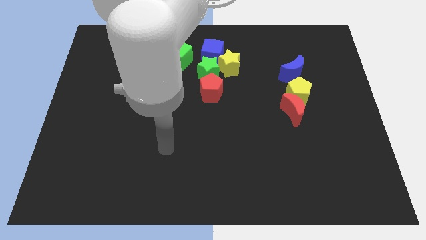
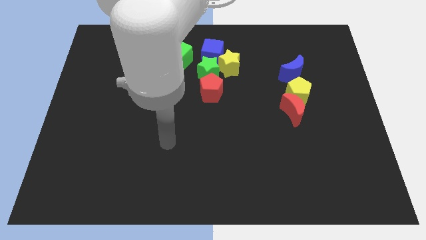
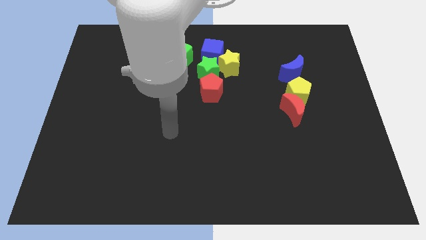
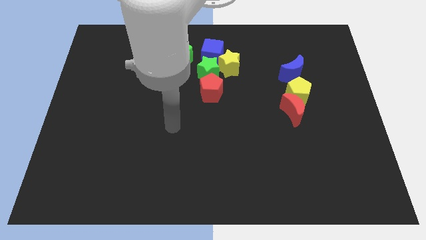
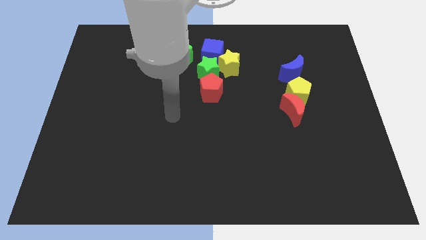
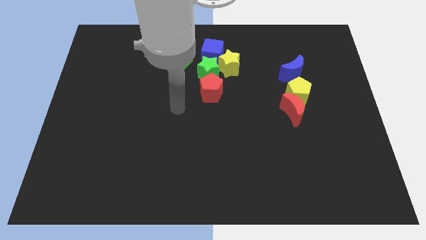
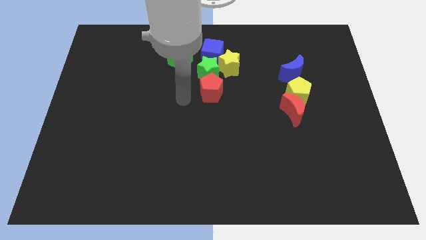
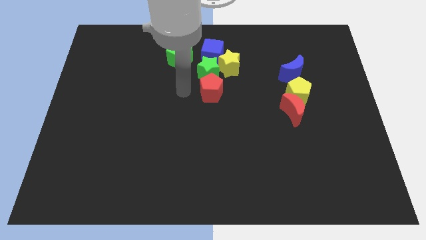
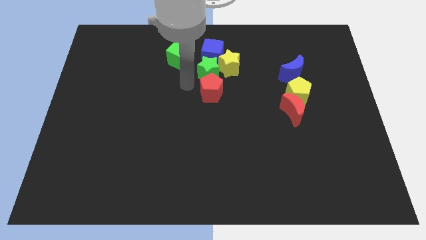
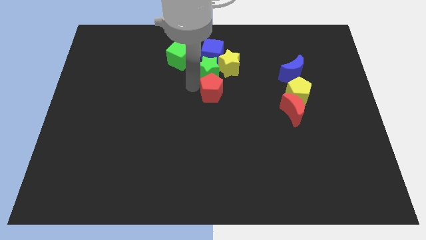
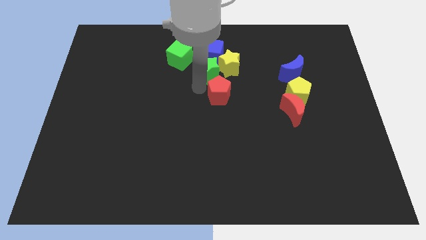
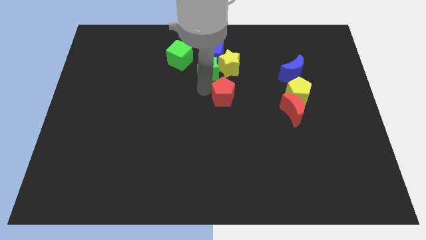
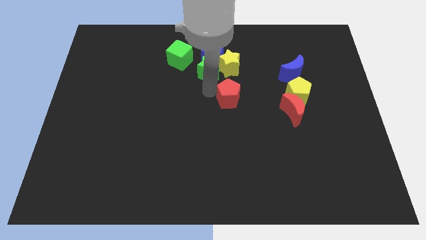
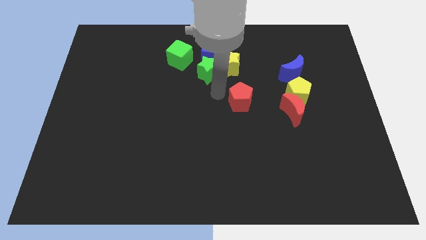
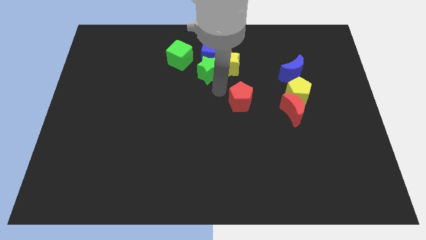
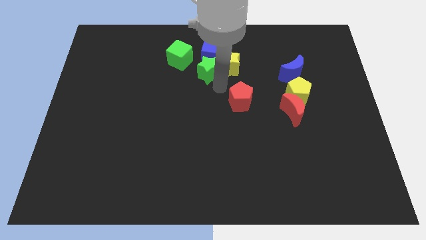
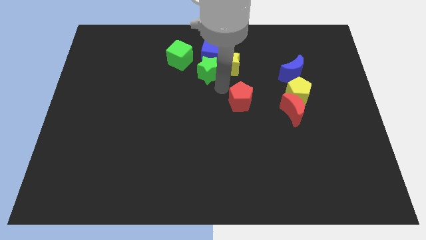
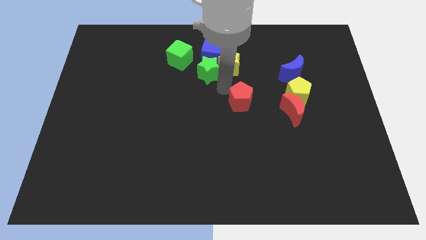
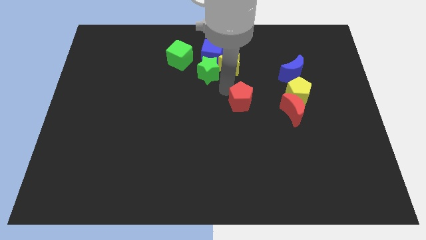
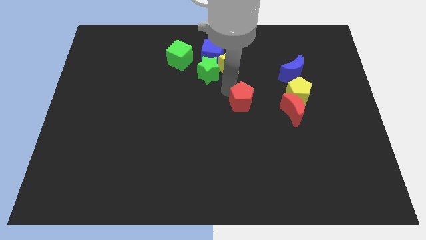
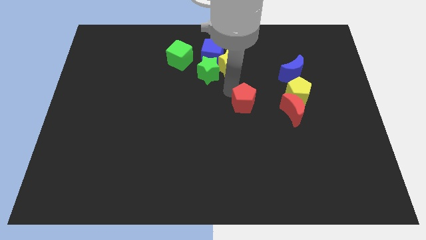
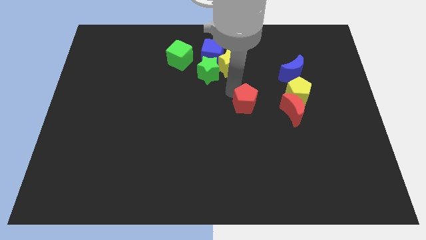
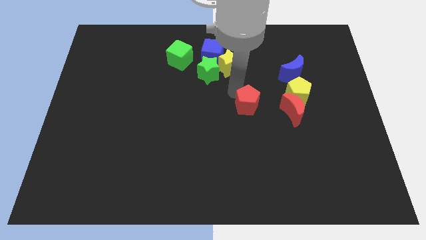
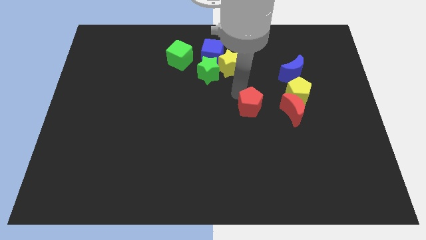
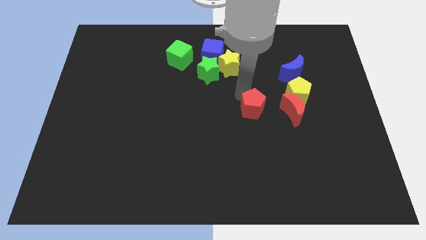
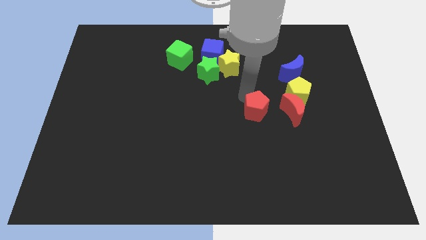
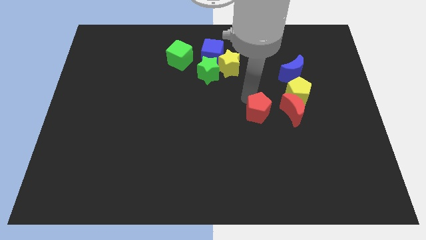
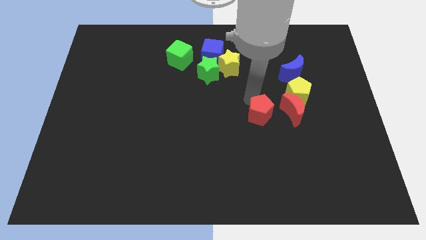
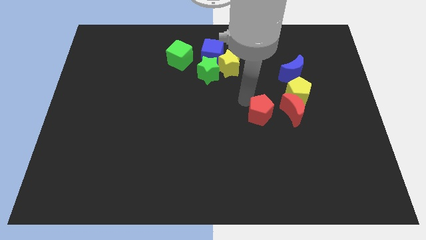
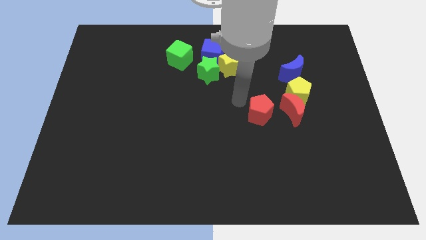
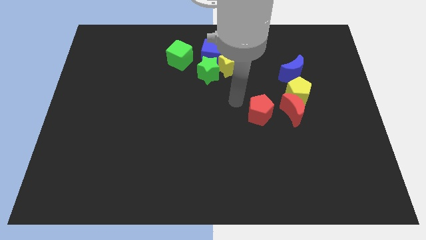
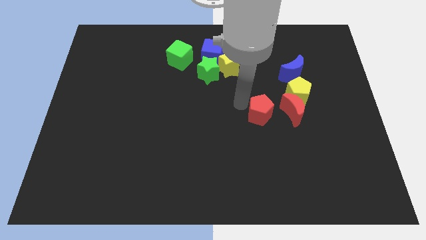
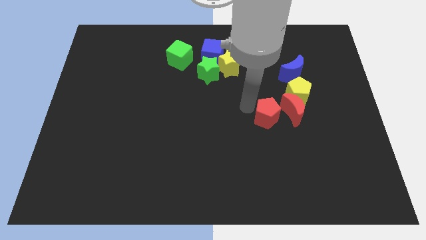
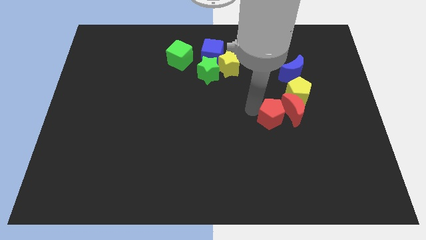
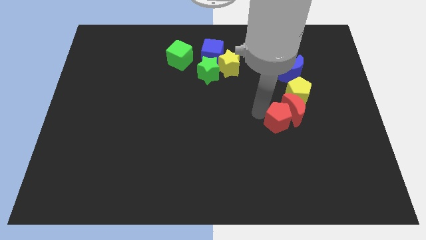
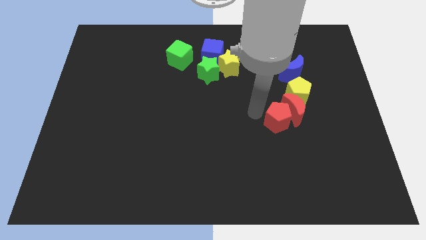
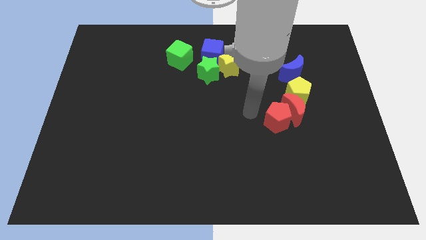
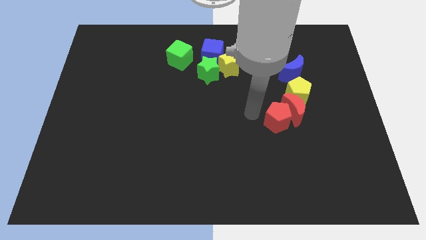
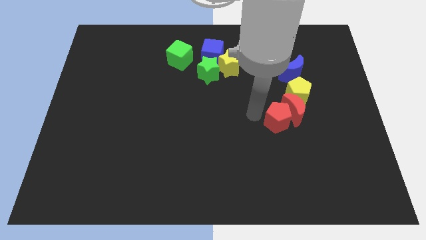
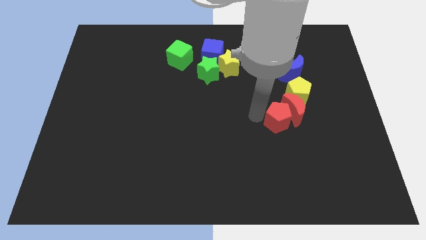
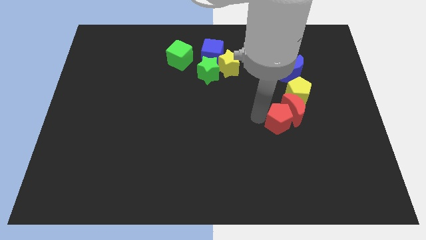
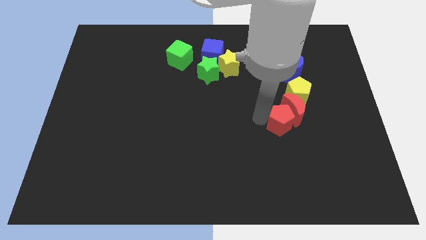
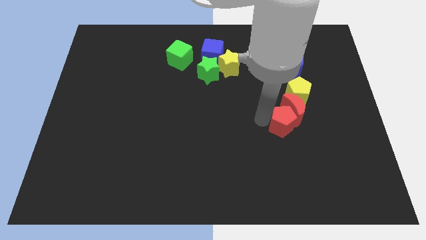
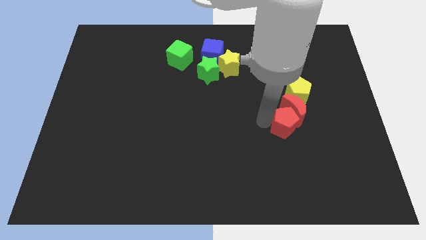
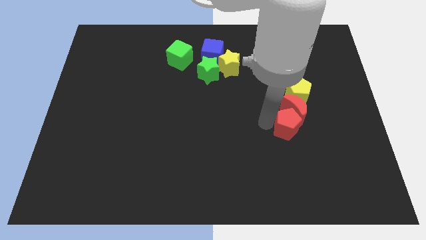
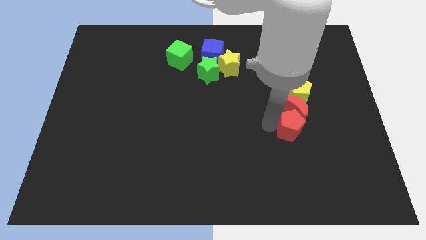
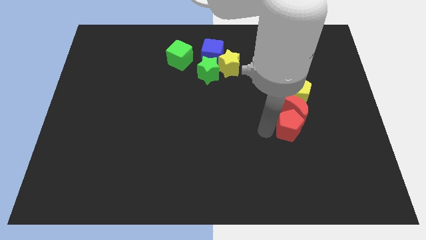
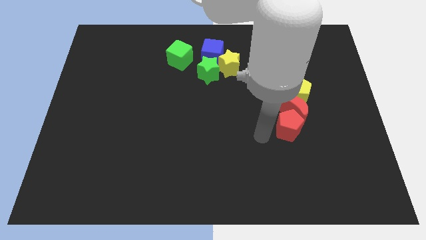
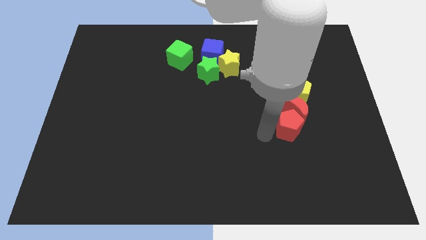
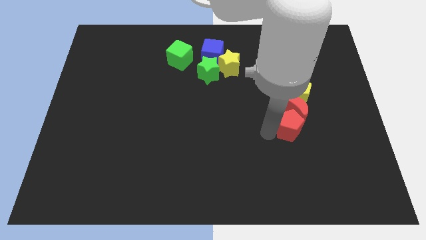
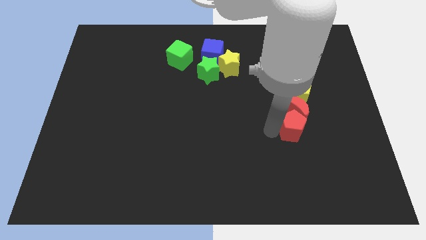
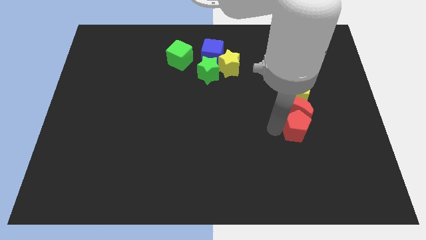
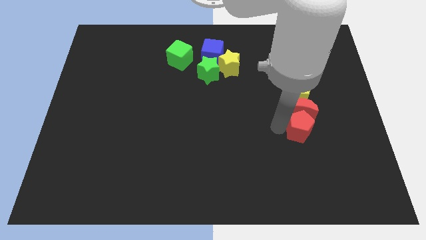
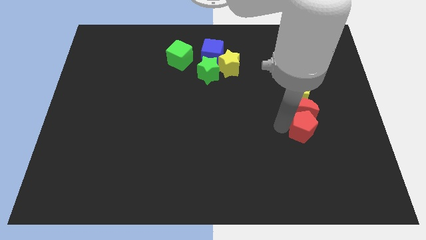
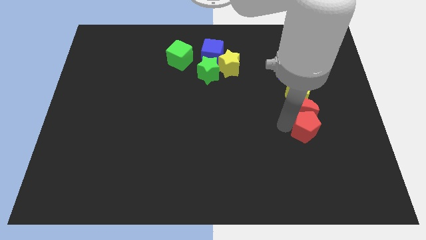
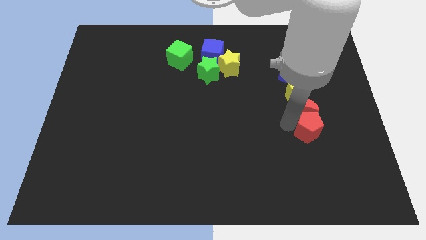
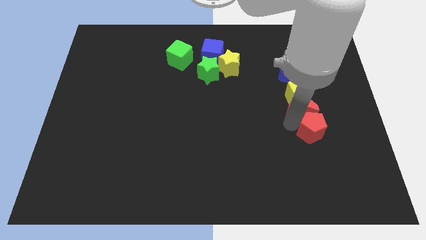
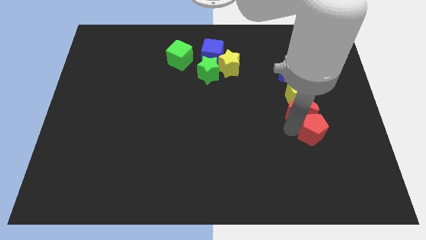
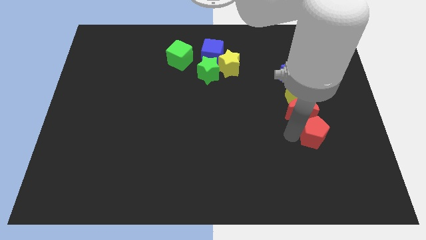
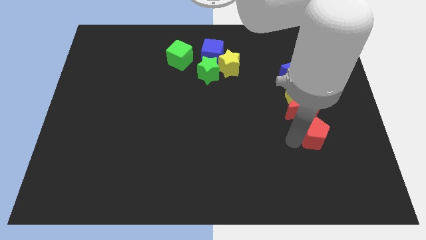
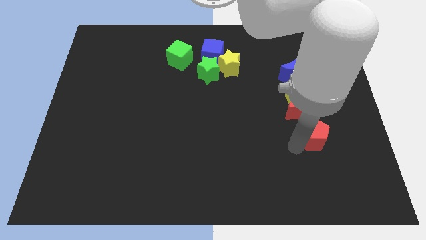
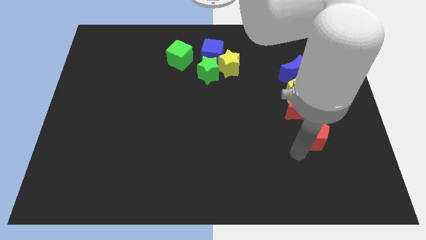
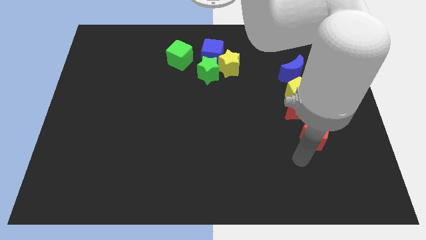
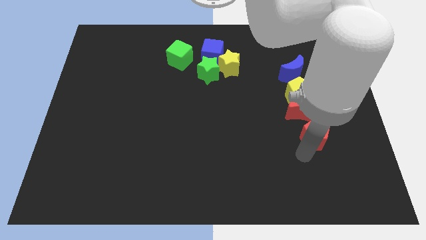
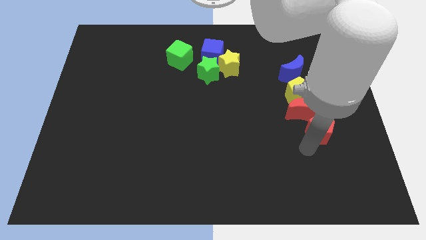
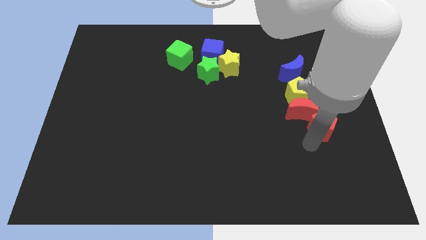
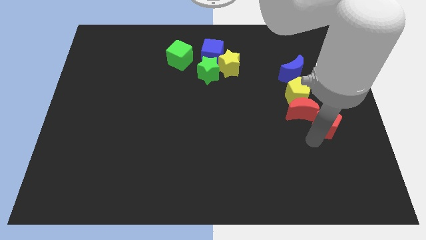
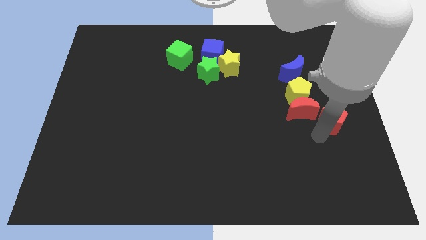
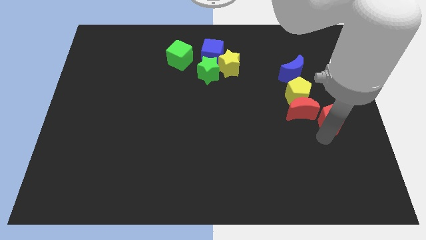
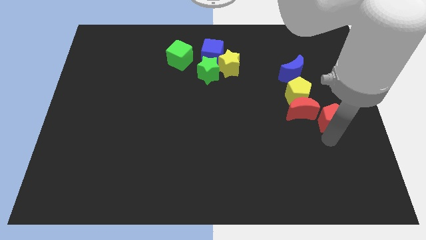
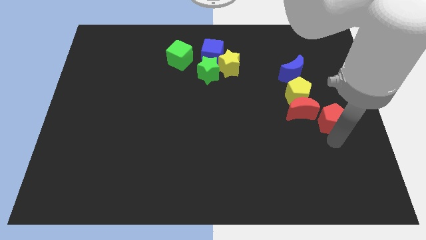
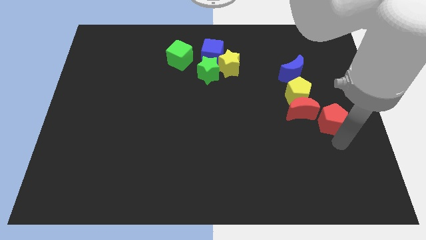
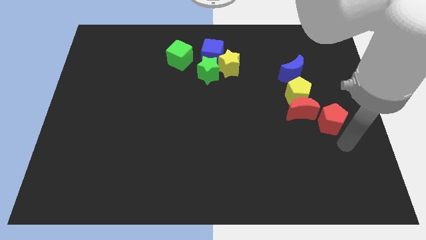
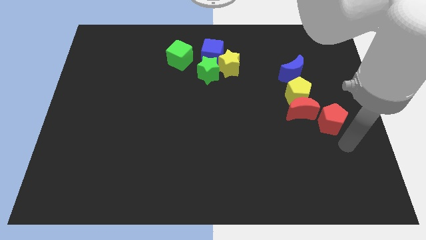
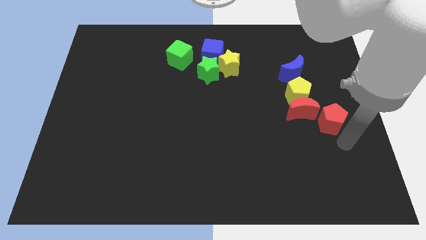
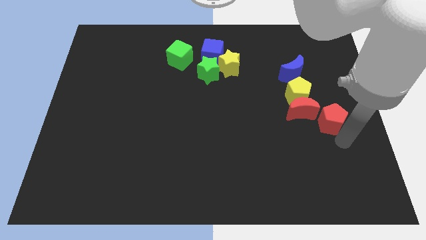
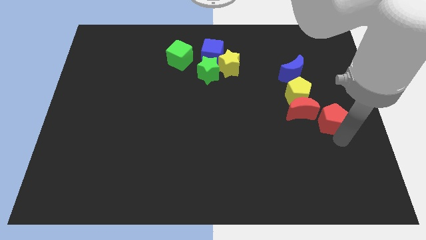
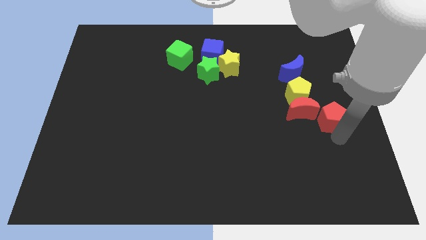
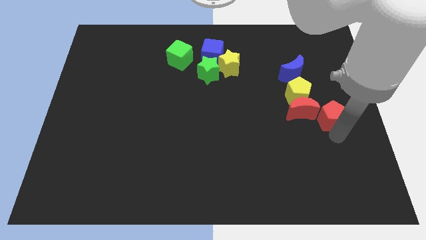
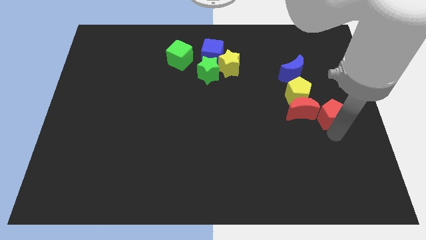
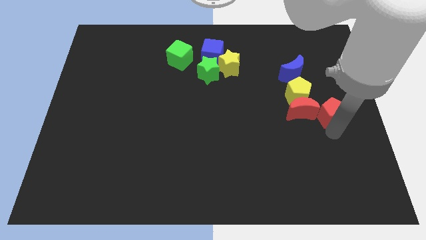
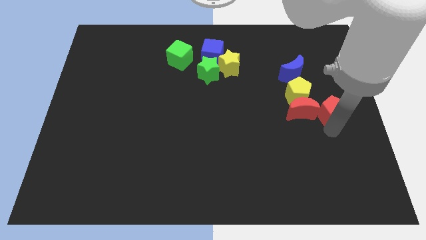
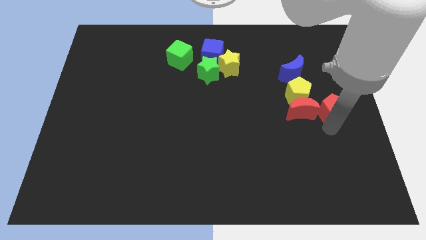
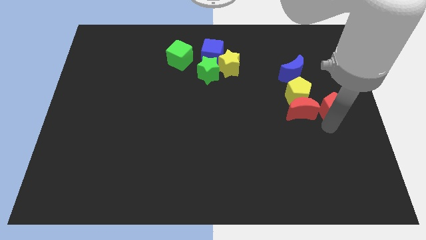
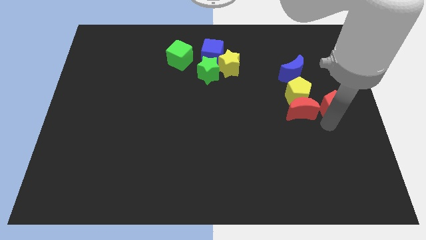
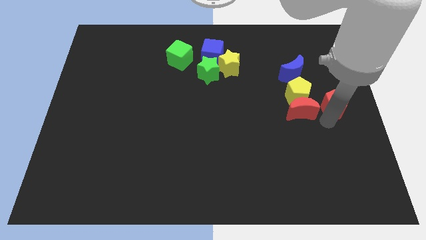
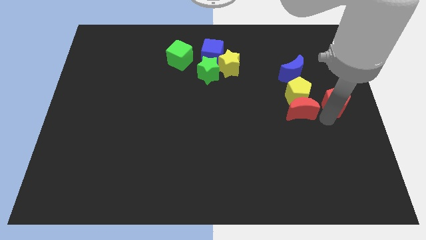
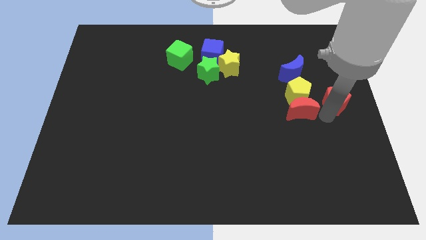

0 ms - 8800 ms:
move the red pentagon diagonally down and to the right of the blue moon
